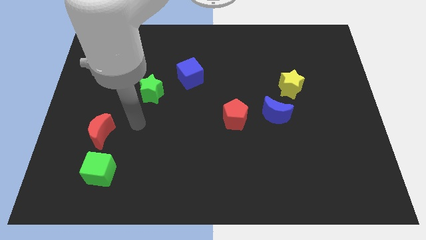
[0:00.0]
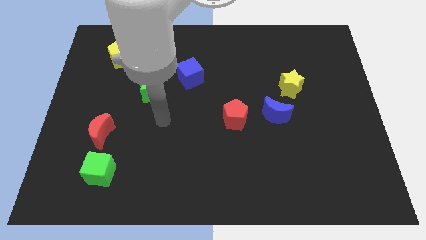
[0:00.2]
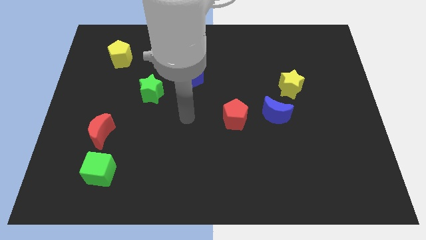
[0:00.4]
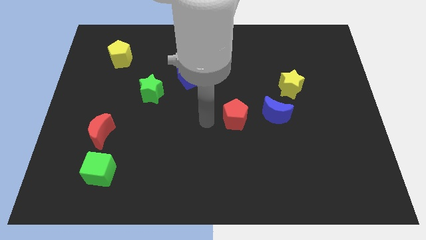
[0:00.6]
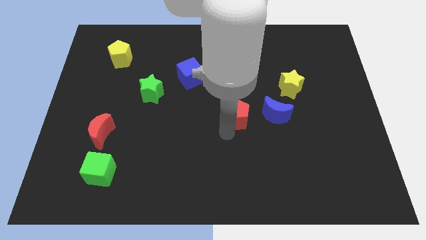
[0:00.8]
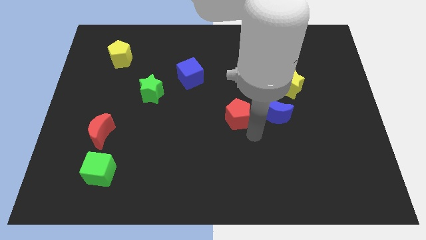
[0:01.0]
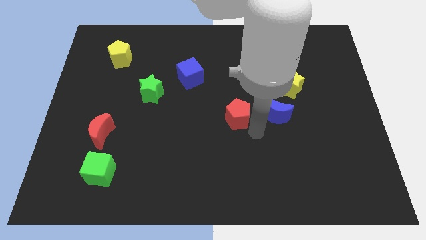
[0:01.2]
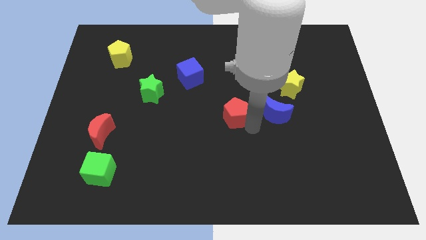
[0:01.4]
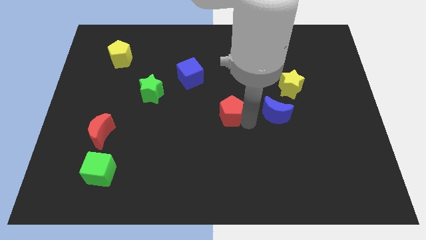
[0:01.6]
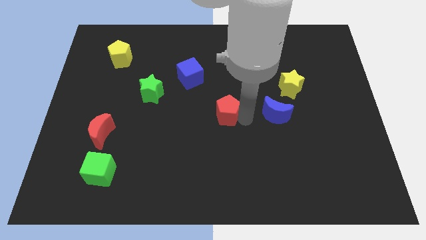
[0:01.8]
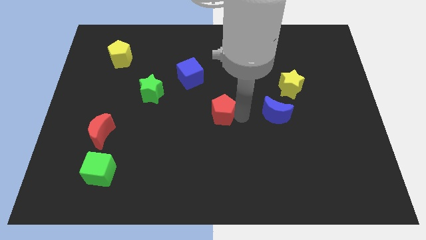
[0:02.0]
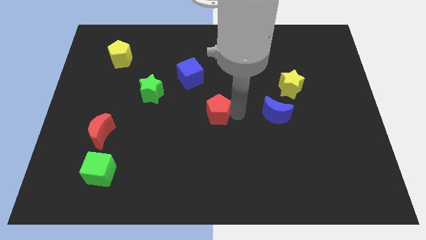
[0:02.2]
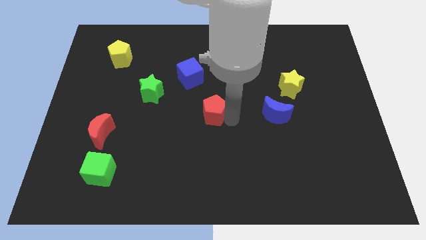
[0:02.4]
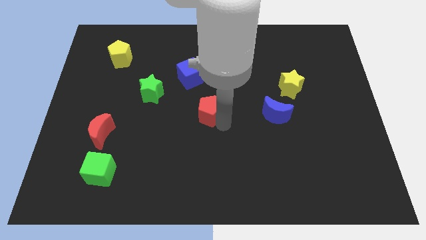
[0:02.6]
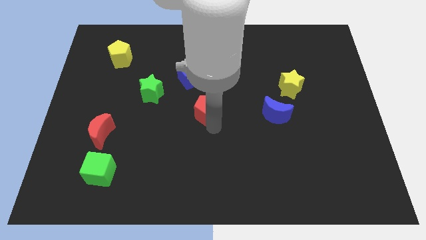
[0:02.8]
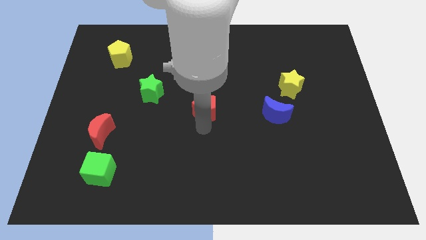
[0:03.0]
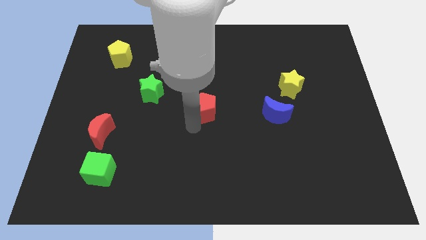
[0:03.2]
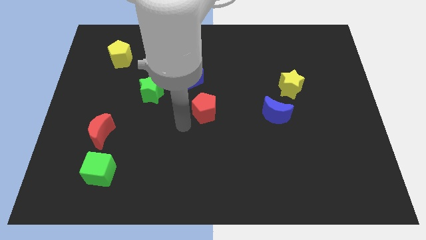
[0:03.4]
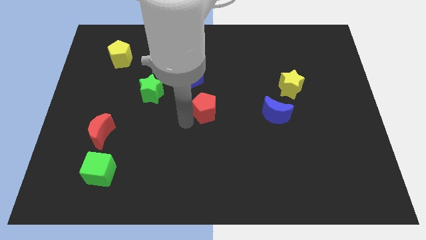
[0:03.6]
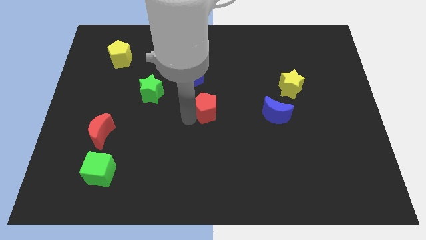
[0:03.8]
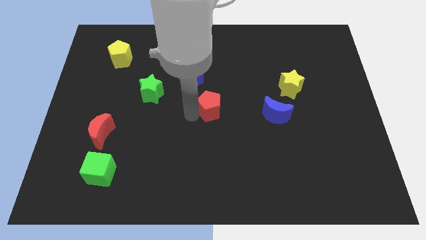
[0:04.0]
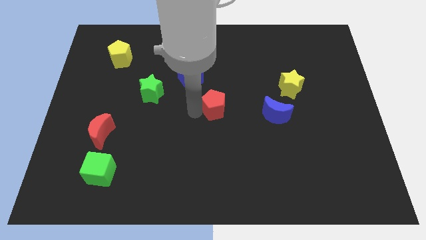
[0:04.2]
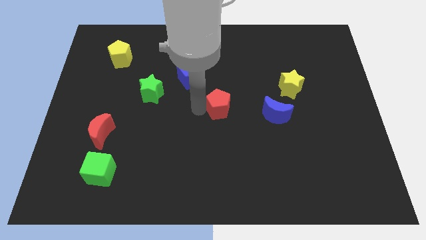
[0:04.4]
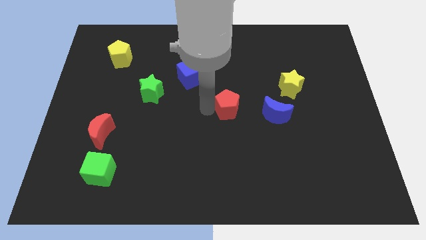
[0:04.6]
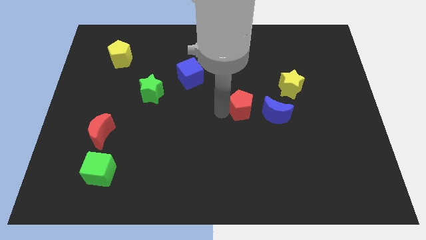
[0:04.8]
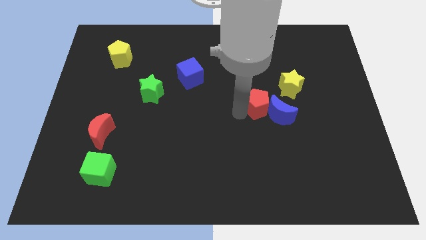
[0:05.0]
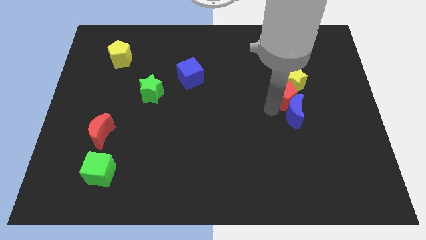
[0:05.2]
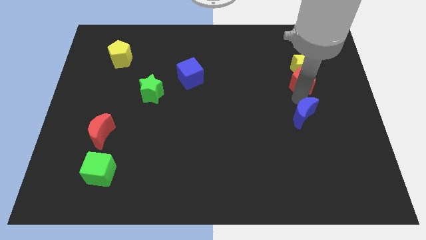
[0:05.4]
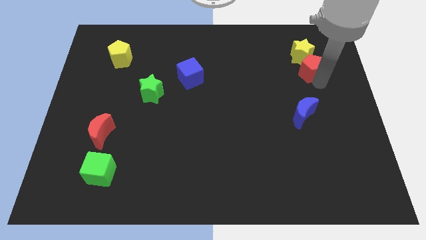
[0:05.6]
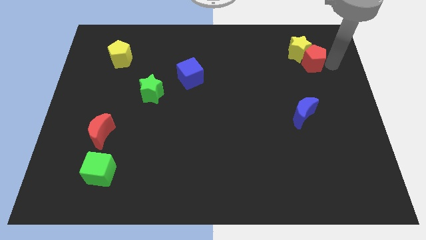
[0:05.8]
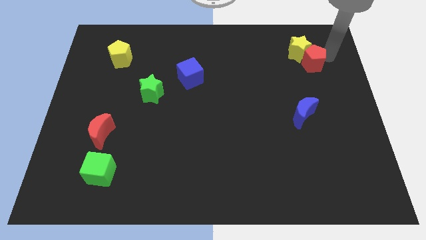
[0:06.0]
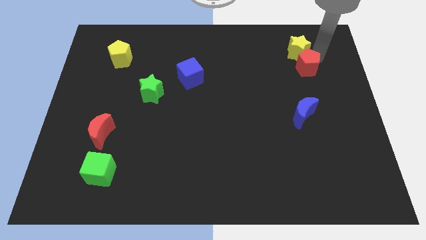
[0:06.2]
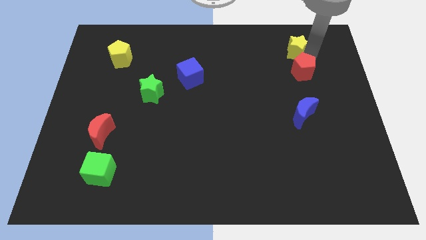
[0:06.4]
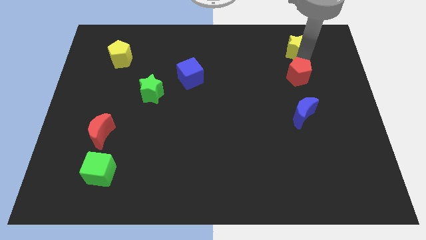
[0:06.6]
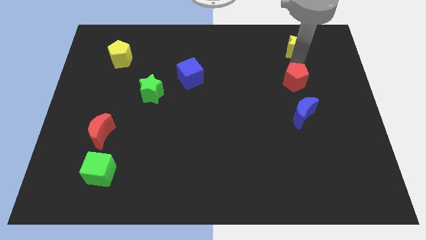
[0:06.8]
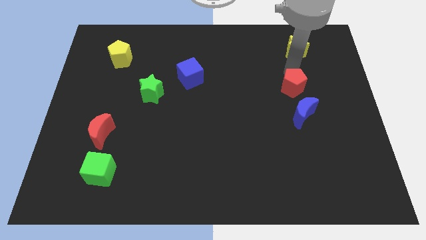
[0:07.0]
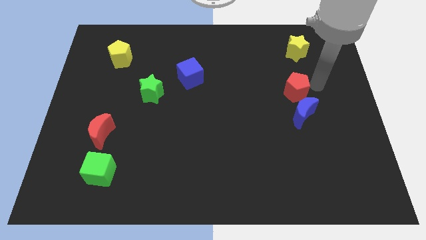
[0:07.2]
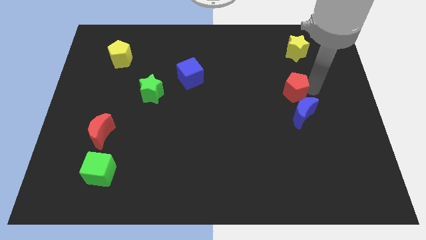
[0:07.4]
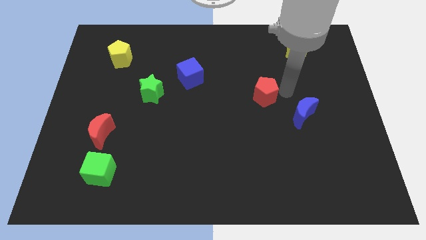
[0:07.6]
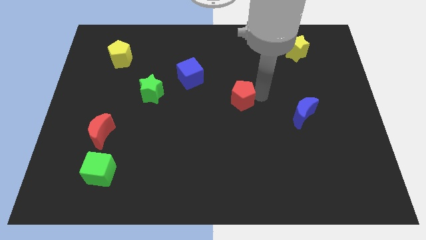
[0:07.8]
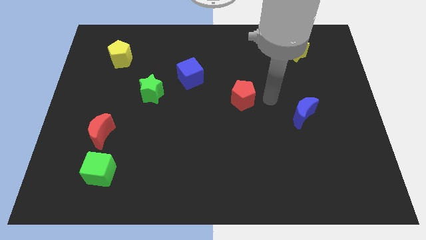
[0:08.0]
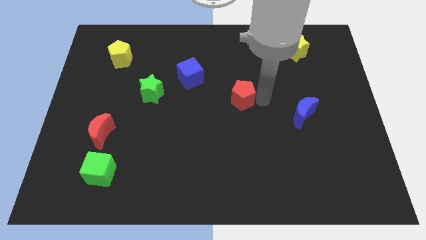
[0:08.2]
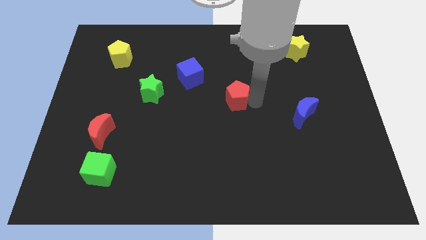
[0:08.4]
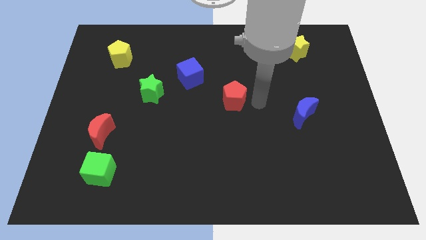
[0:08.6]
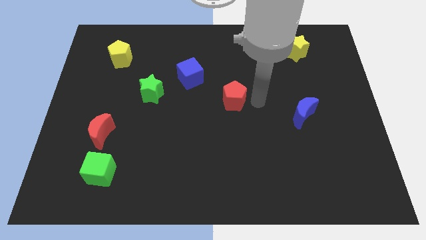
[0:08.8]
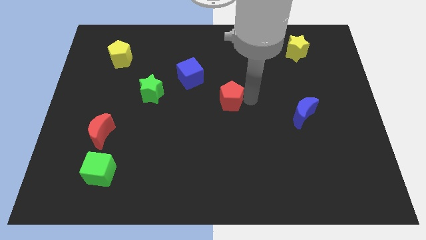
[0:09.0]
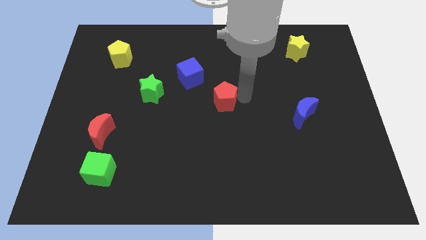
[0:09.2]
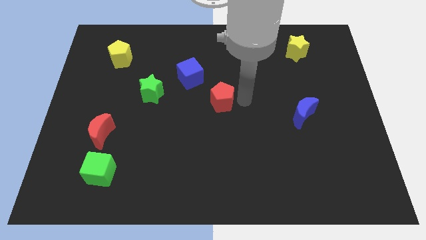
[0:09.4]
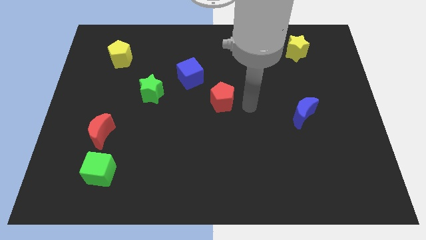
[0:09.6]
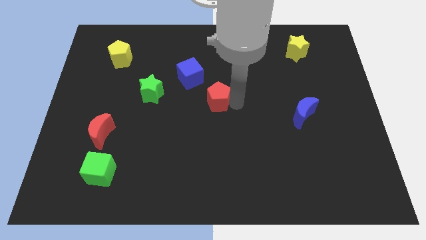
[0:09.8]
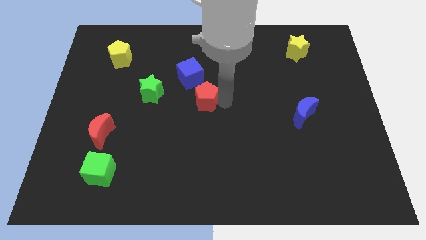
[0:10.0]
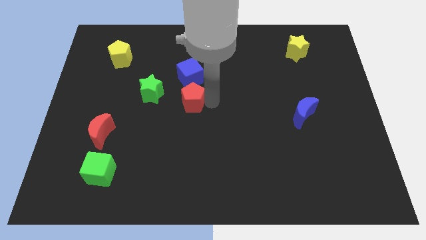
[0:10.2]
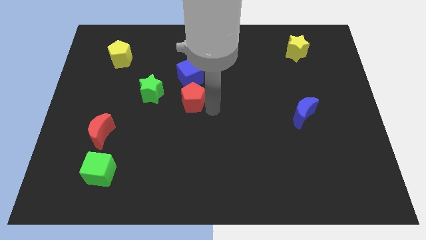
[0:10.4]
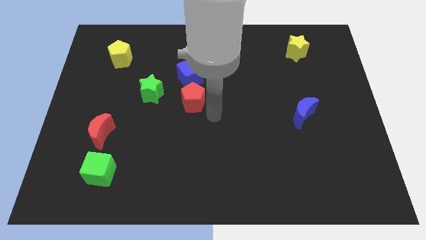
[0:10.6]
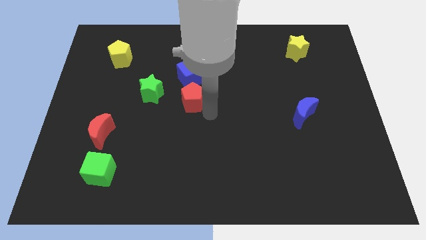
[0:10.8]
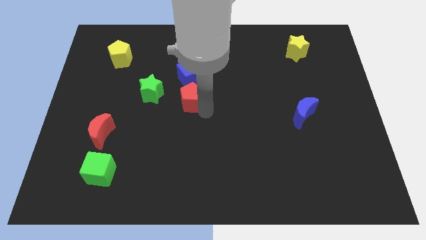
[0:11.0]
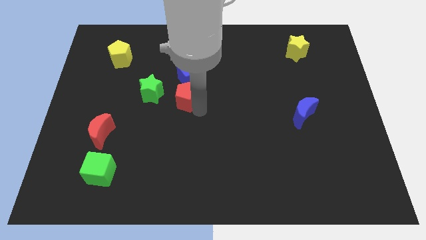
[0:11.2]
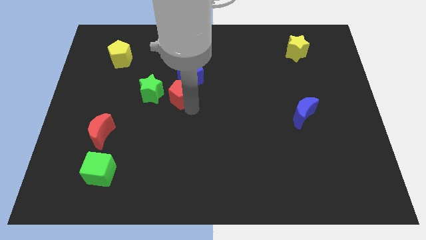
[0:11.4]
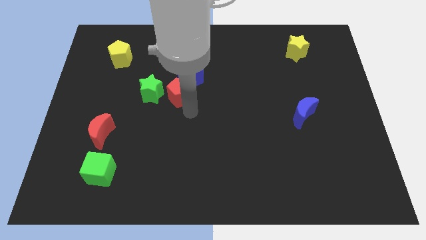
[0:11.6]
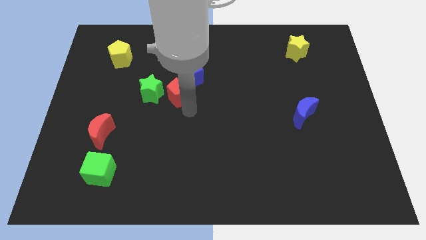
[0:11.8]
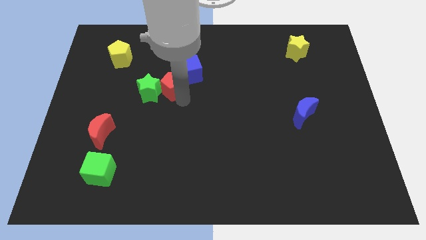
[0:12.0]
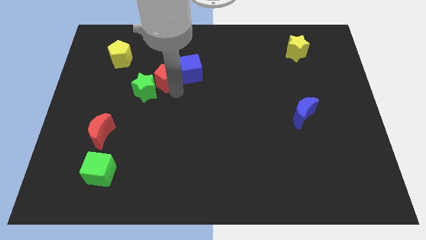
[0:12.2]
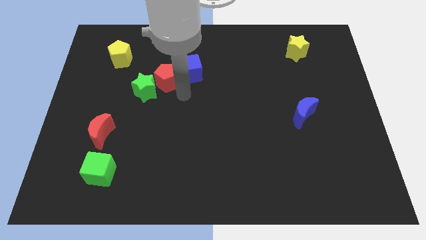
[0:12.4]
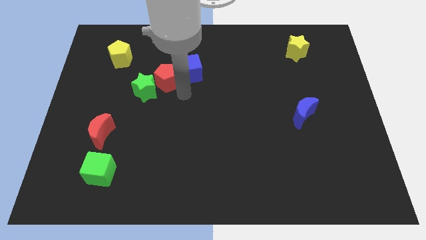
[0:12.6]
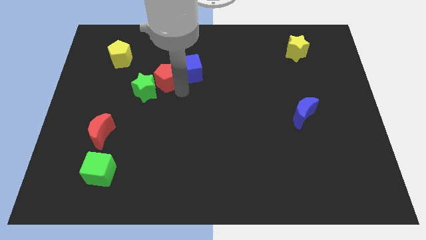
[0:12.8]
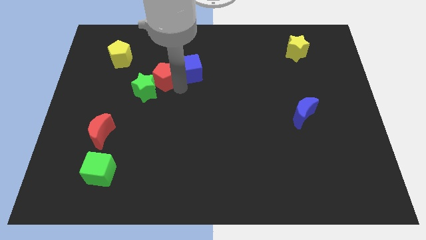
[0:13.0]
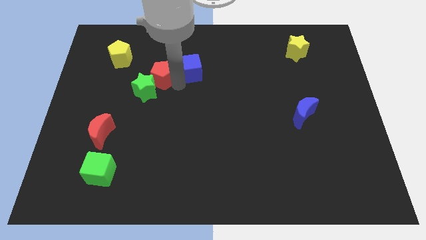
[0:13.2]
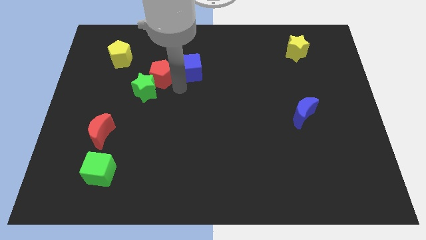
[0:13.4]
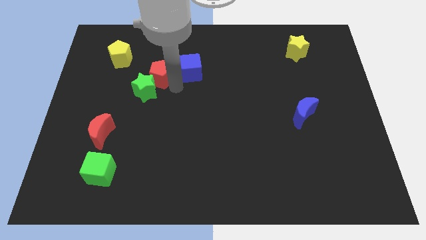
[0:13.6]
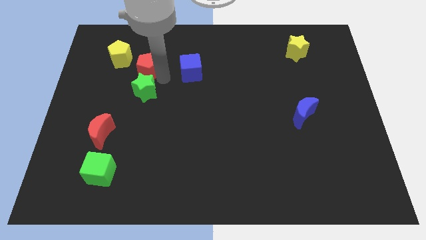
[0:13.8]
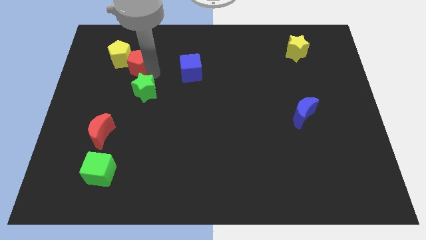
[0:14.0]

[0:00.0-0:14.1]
move the red pentagon next to the yellow pentagon
